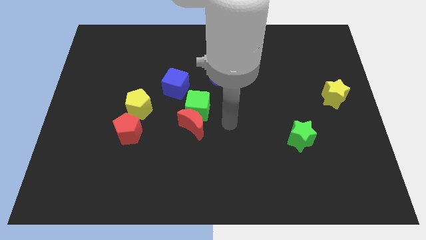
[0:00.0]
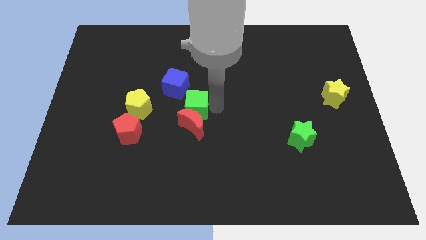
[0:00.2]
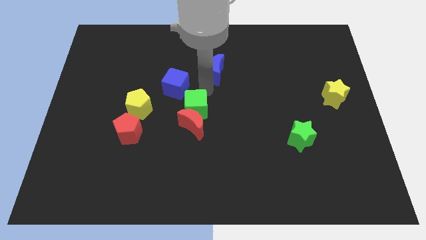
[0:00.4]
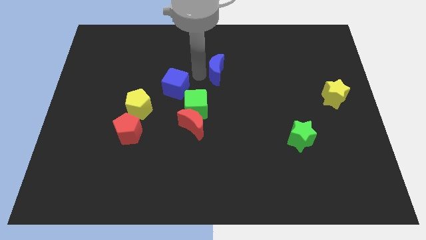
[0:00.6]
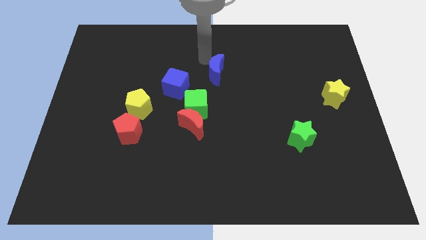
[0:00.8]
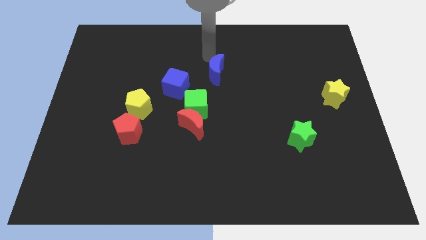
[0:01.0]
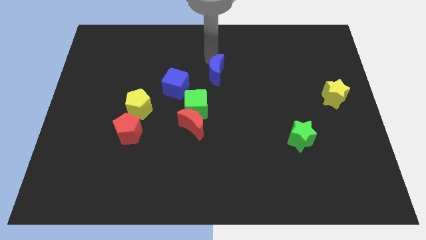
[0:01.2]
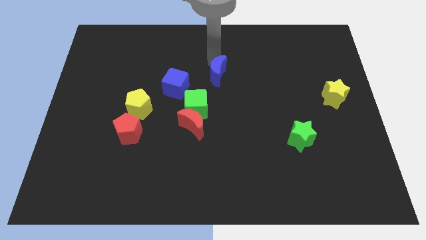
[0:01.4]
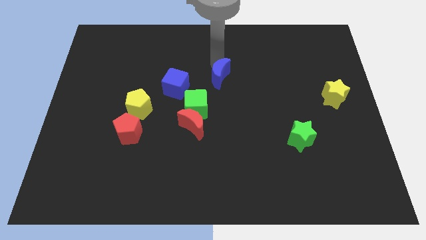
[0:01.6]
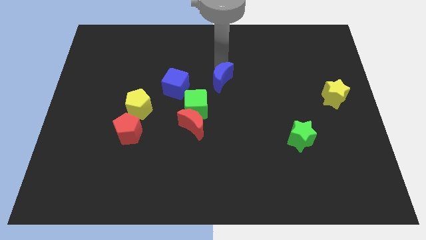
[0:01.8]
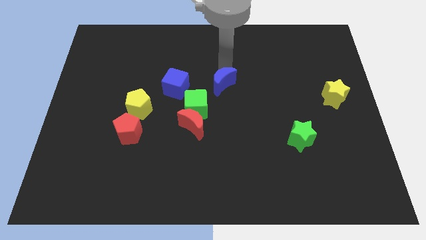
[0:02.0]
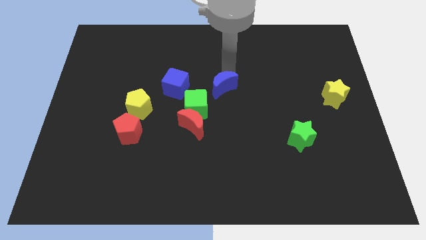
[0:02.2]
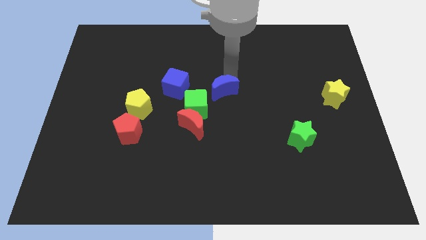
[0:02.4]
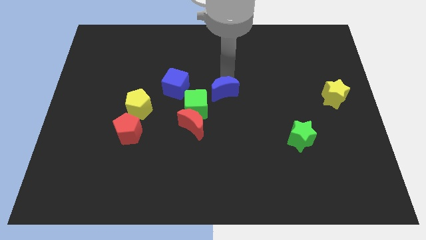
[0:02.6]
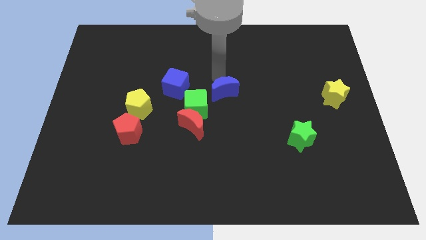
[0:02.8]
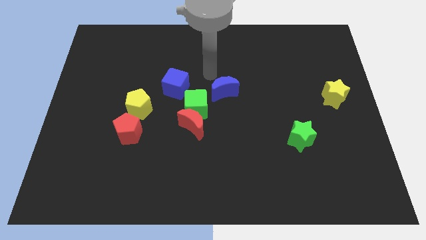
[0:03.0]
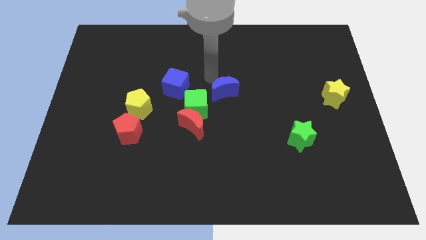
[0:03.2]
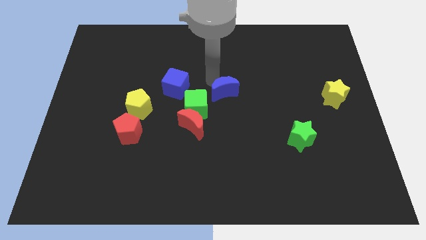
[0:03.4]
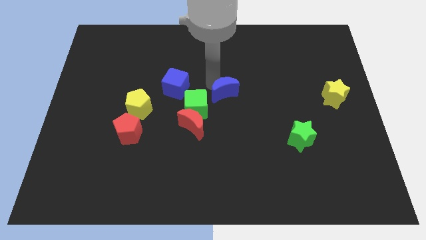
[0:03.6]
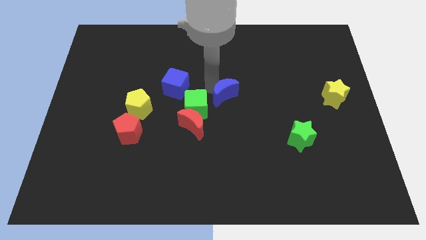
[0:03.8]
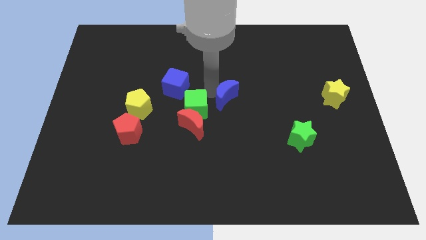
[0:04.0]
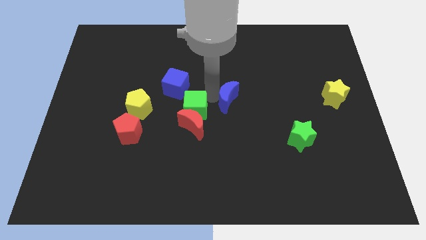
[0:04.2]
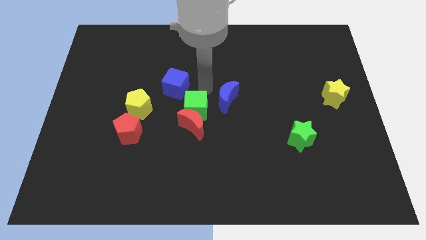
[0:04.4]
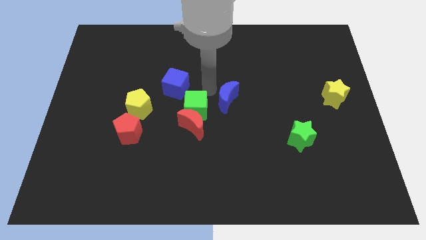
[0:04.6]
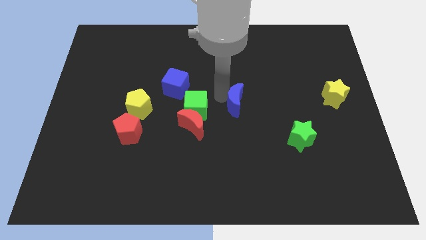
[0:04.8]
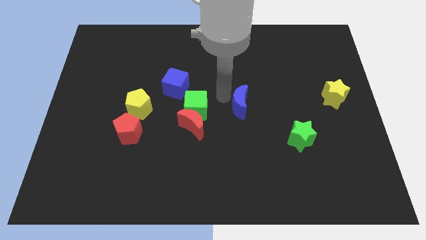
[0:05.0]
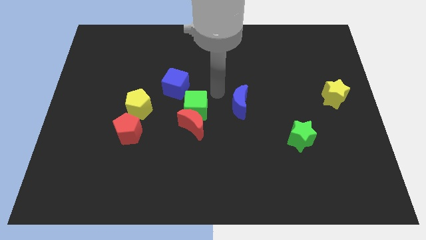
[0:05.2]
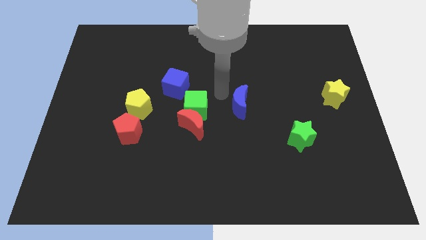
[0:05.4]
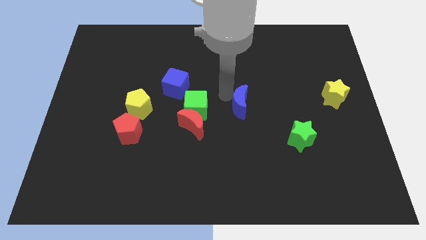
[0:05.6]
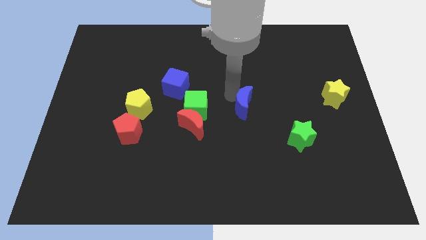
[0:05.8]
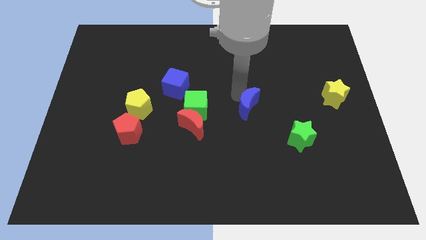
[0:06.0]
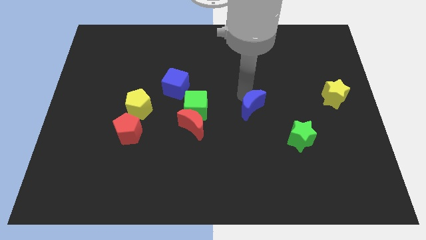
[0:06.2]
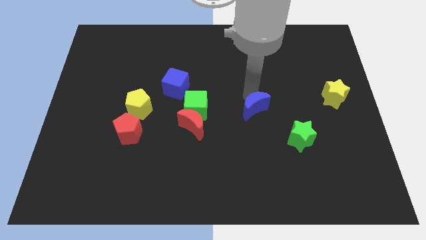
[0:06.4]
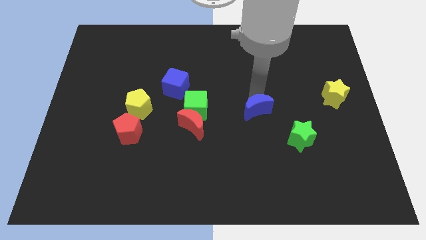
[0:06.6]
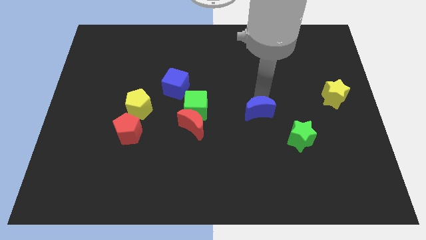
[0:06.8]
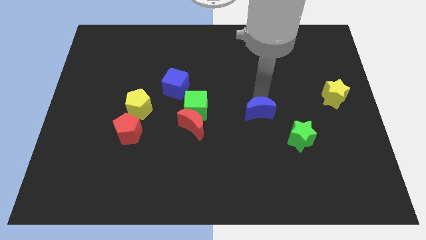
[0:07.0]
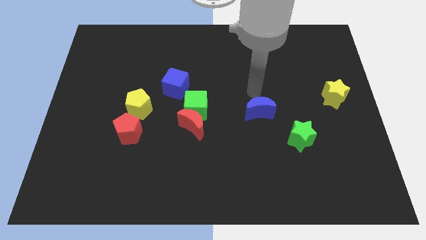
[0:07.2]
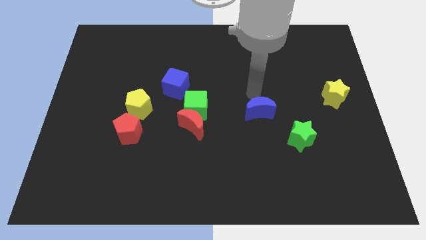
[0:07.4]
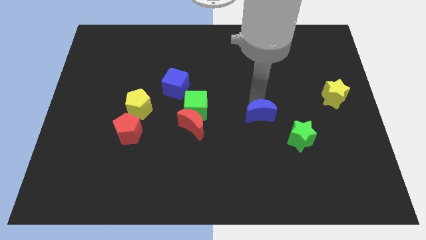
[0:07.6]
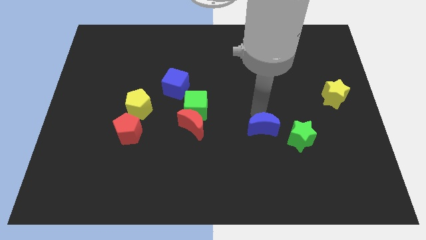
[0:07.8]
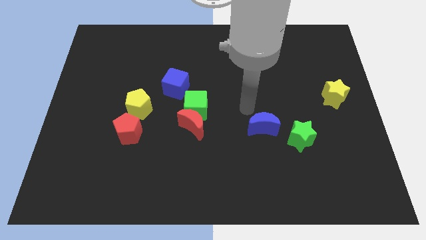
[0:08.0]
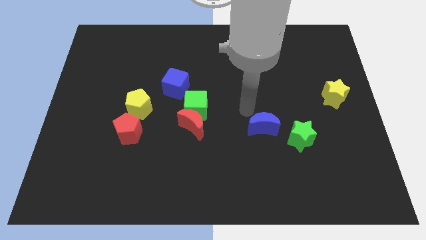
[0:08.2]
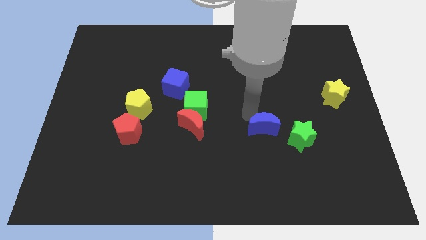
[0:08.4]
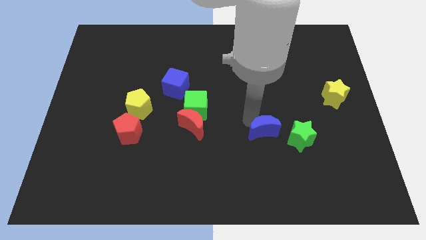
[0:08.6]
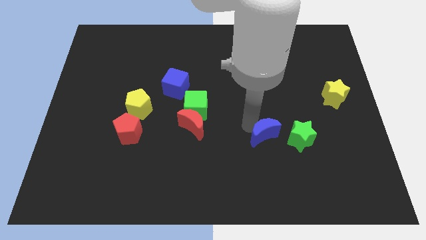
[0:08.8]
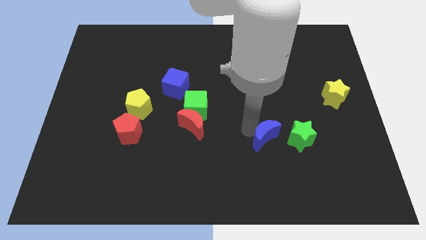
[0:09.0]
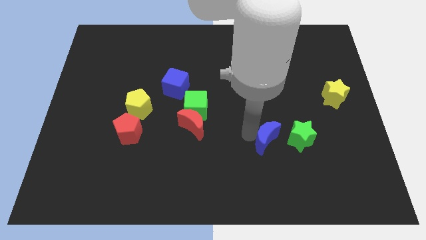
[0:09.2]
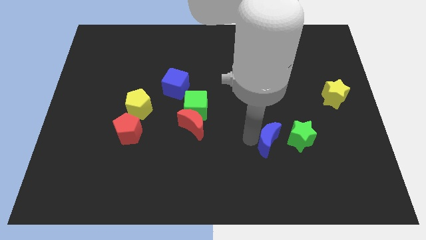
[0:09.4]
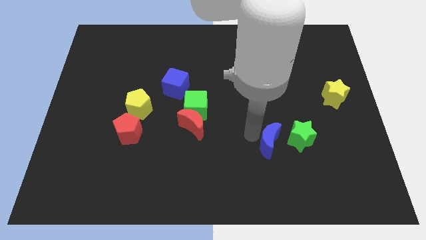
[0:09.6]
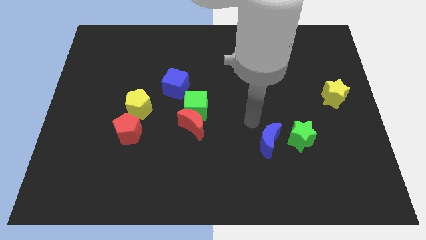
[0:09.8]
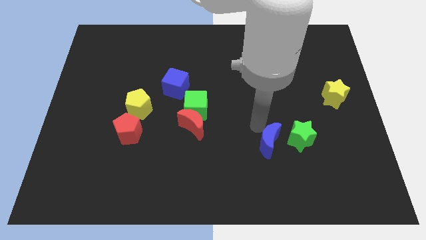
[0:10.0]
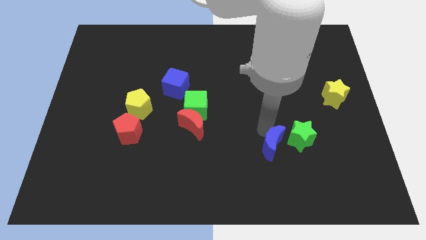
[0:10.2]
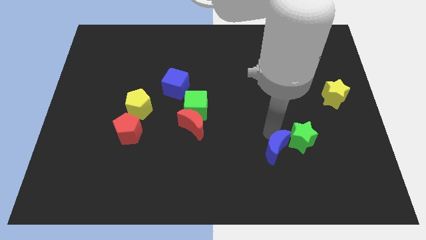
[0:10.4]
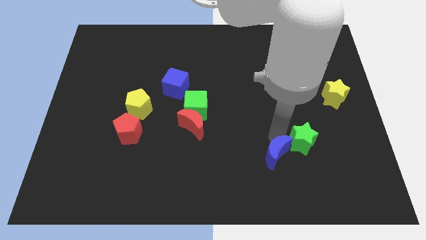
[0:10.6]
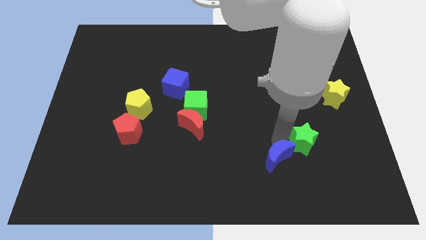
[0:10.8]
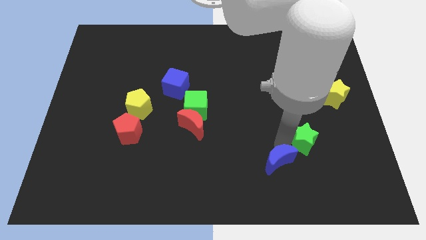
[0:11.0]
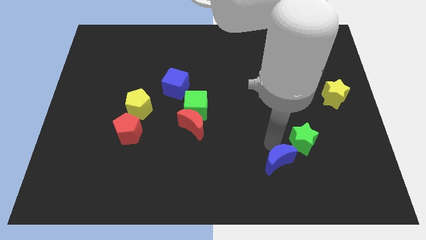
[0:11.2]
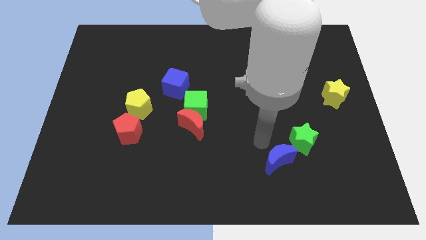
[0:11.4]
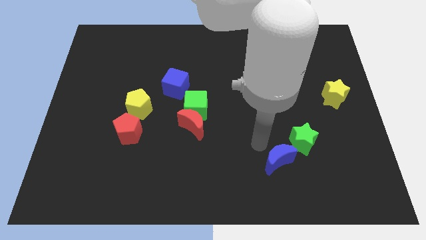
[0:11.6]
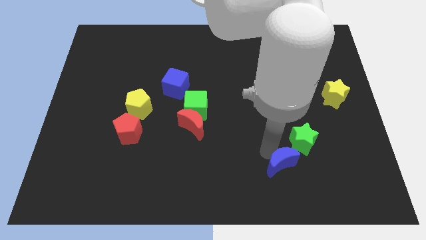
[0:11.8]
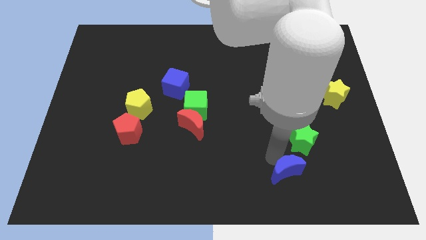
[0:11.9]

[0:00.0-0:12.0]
move the blue moon to the bottom side of the green star

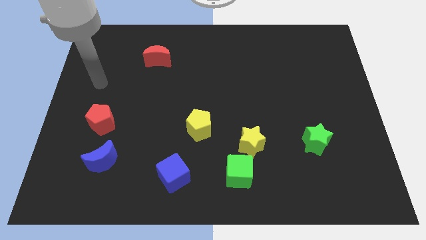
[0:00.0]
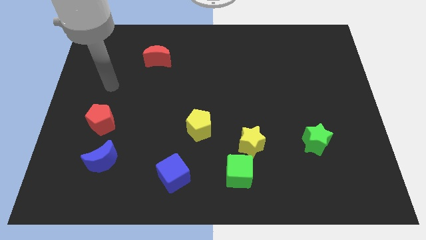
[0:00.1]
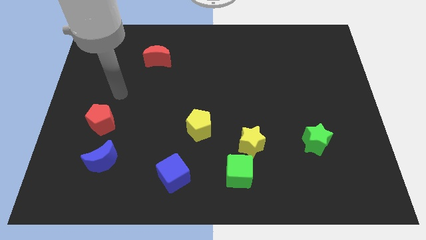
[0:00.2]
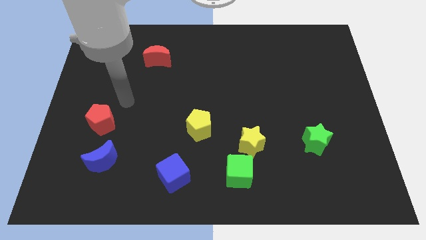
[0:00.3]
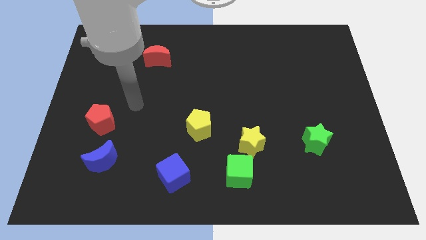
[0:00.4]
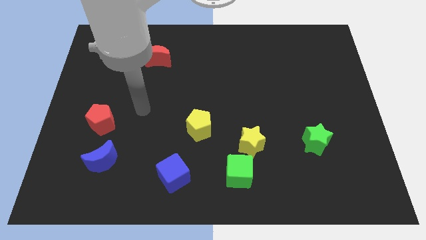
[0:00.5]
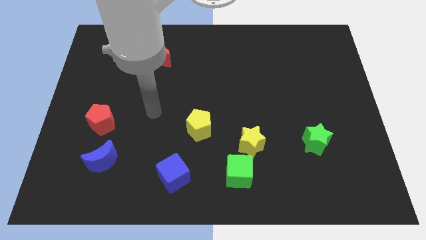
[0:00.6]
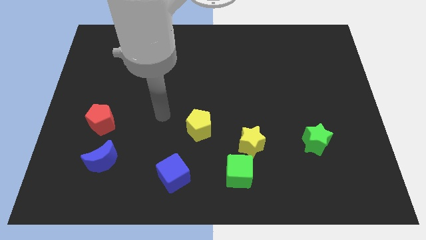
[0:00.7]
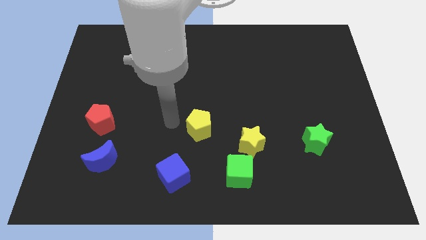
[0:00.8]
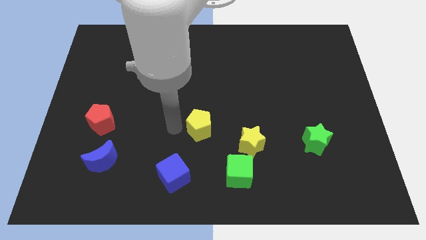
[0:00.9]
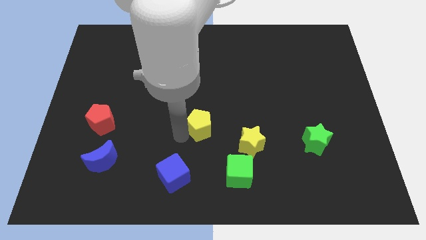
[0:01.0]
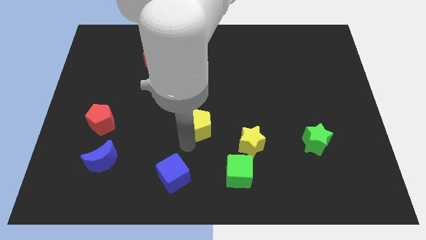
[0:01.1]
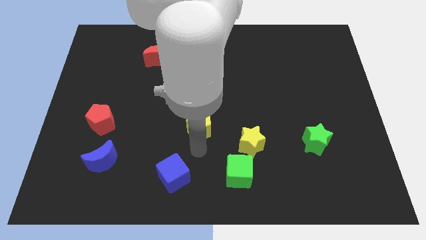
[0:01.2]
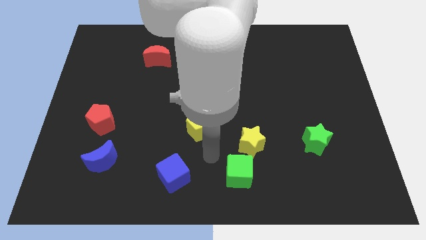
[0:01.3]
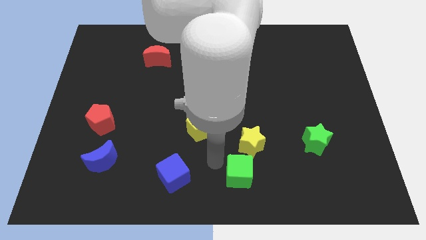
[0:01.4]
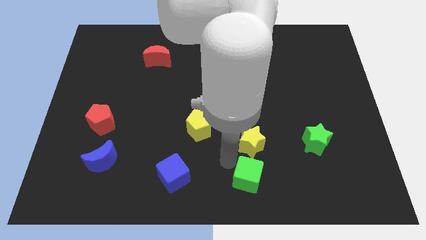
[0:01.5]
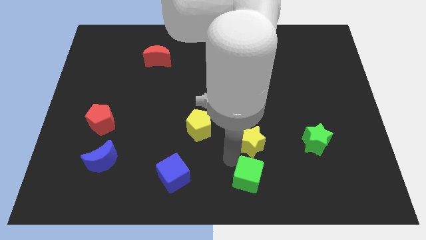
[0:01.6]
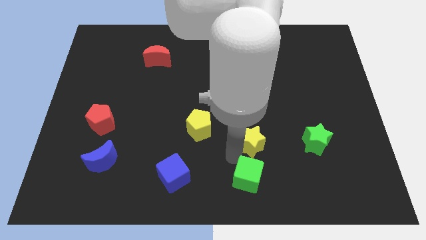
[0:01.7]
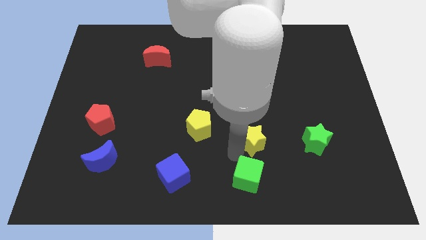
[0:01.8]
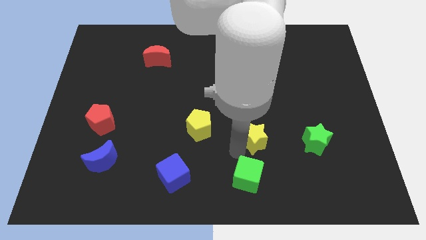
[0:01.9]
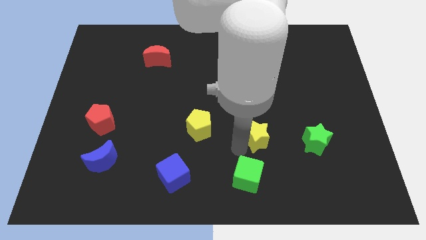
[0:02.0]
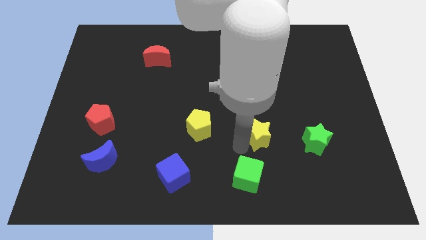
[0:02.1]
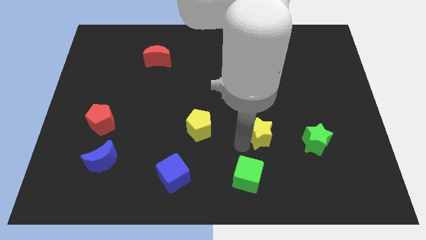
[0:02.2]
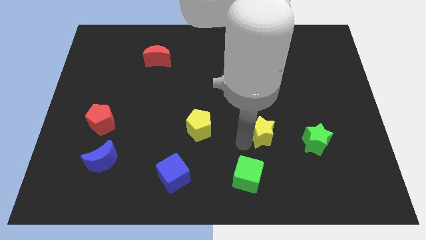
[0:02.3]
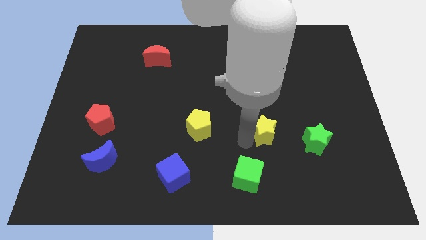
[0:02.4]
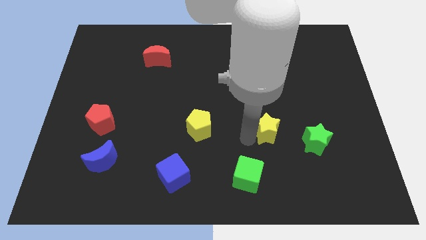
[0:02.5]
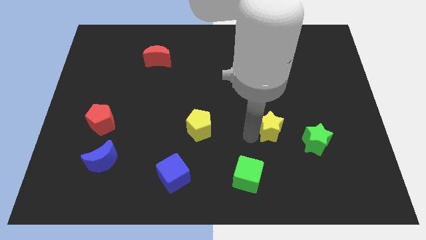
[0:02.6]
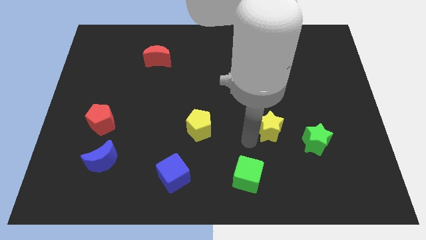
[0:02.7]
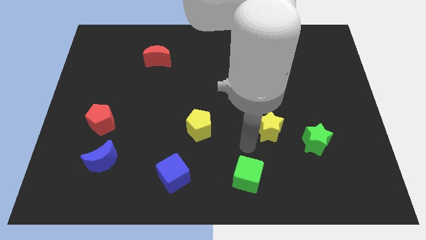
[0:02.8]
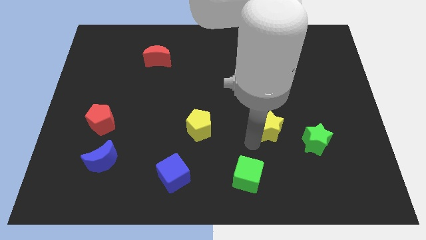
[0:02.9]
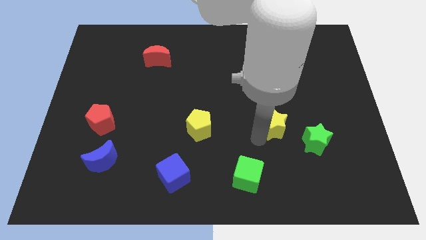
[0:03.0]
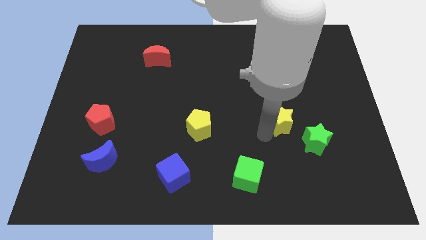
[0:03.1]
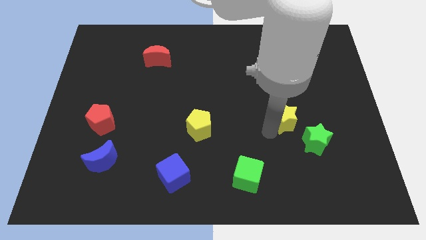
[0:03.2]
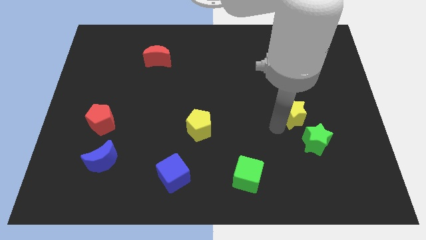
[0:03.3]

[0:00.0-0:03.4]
put the yellow star to the top side of the green star
